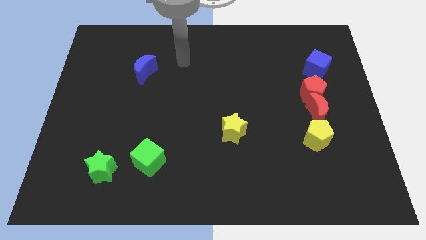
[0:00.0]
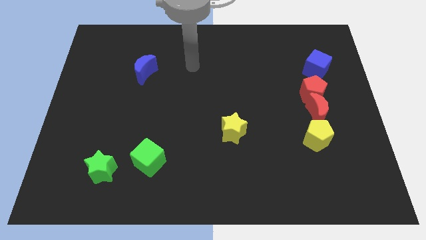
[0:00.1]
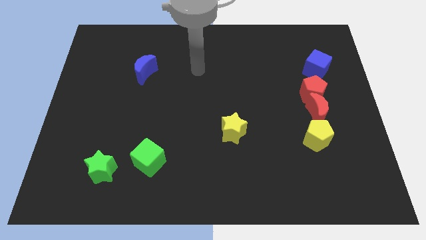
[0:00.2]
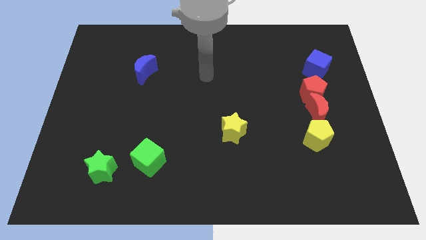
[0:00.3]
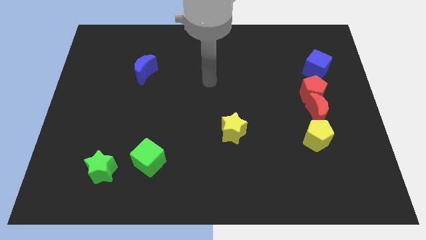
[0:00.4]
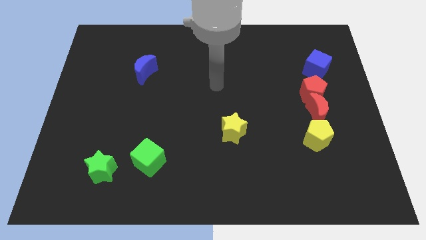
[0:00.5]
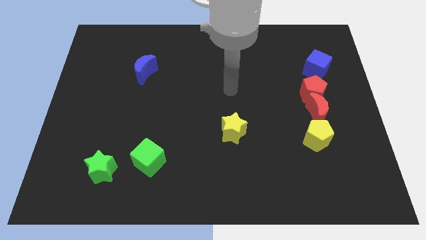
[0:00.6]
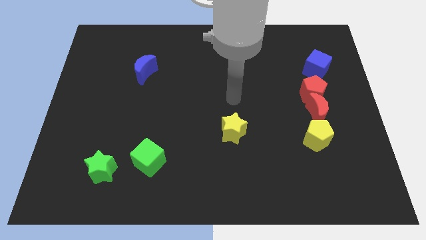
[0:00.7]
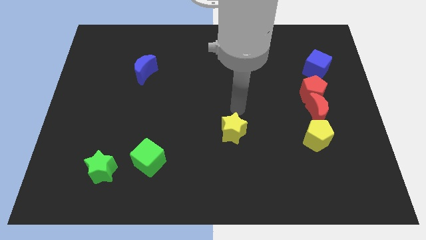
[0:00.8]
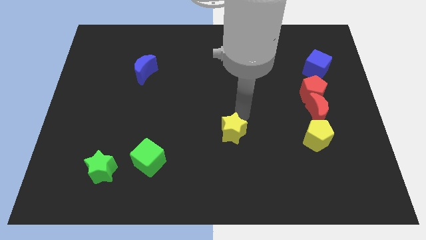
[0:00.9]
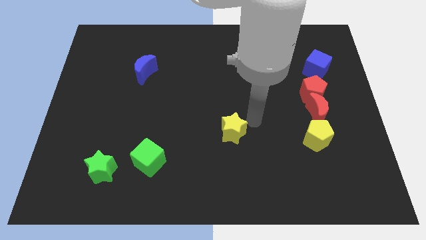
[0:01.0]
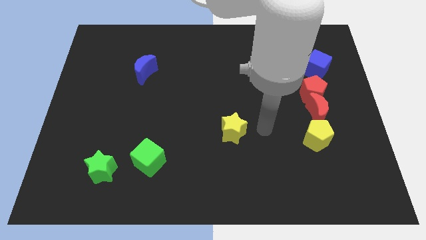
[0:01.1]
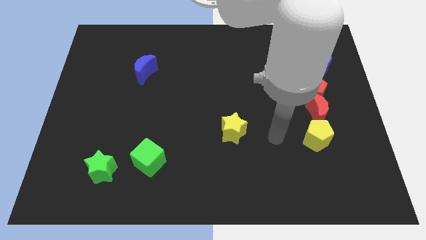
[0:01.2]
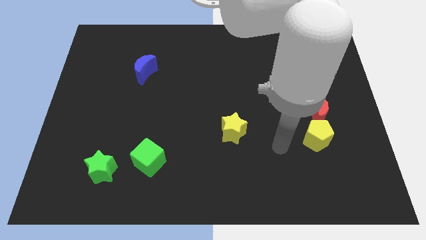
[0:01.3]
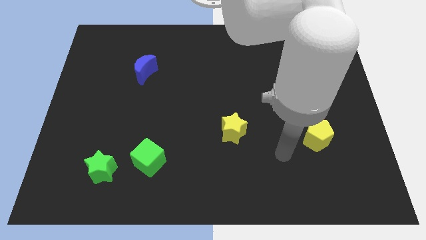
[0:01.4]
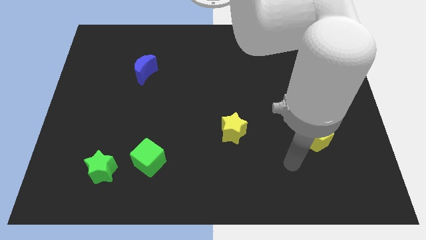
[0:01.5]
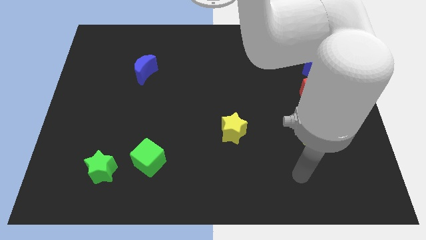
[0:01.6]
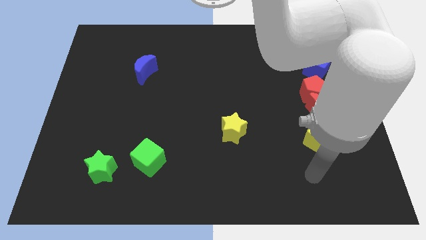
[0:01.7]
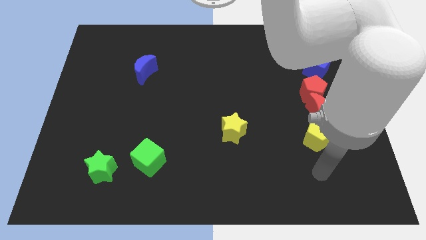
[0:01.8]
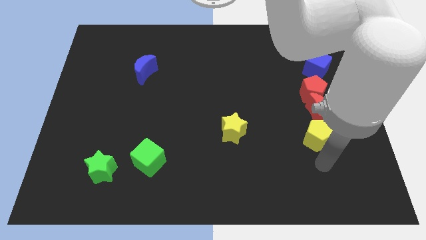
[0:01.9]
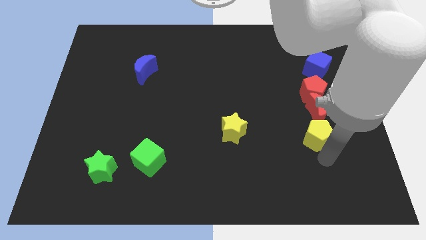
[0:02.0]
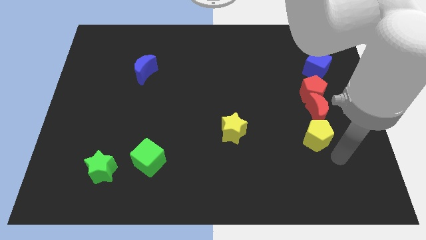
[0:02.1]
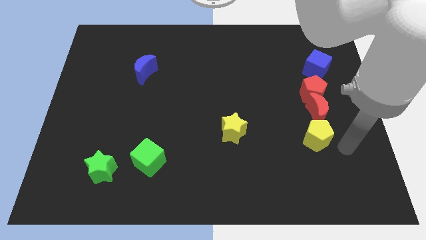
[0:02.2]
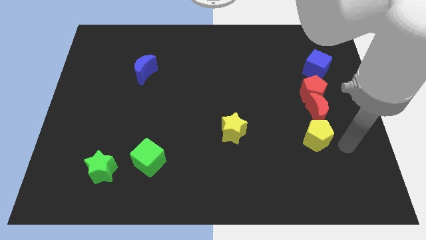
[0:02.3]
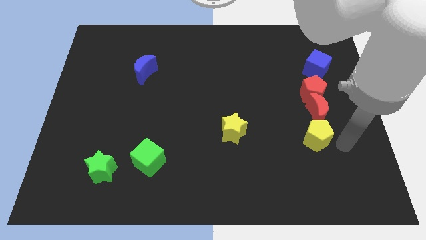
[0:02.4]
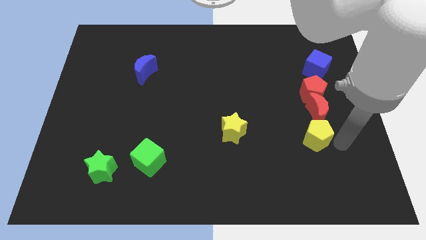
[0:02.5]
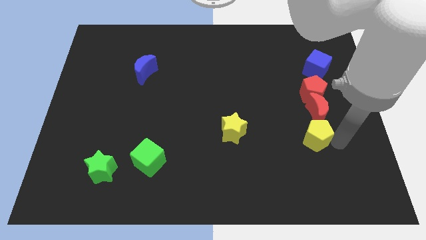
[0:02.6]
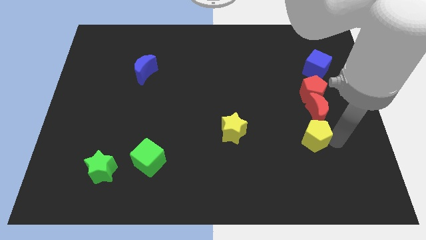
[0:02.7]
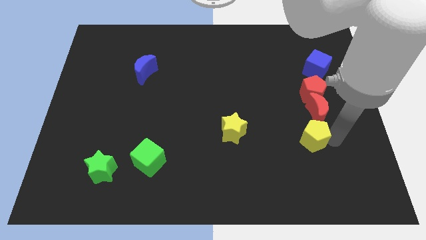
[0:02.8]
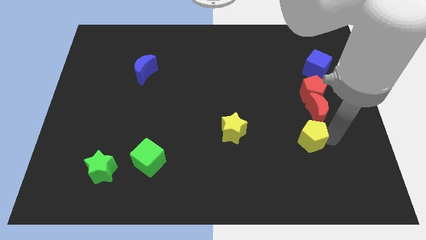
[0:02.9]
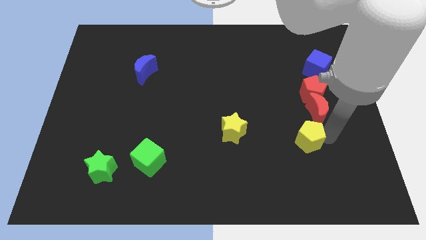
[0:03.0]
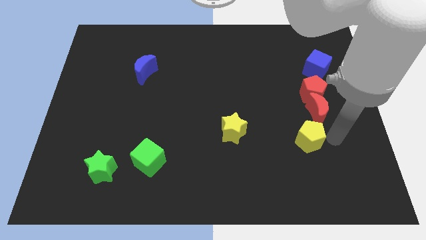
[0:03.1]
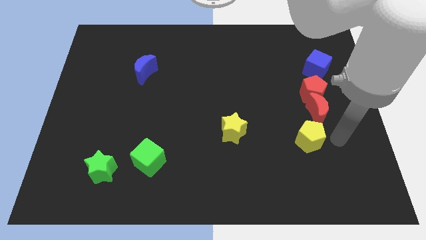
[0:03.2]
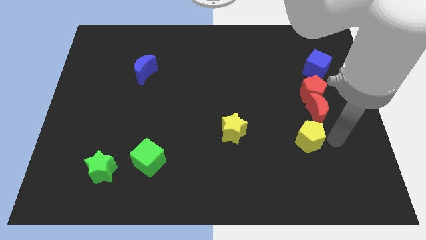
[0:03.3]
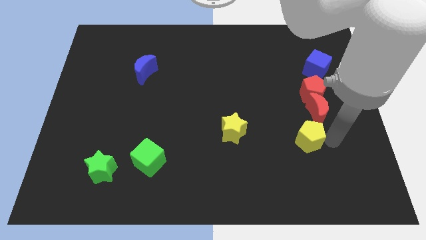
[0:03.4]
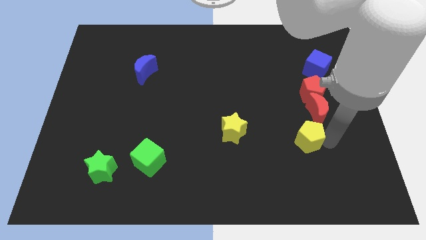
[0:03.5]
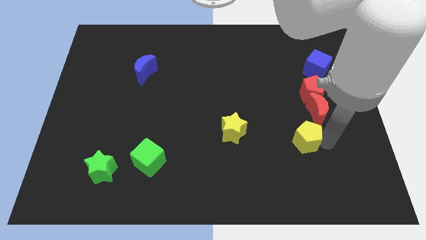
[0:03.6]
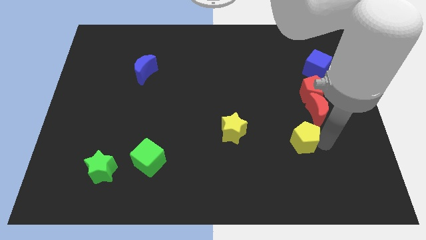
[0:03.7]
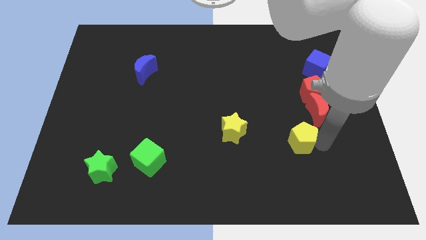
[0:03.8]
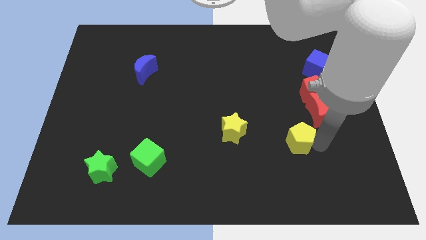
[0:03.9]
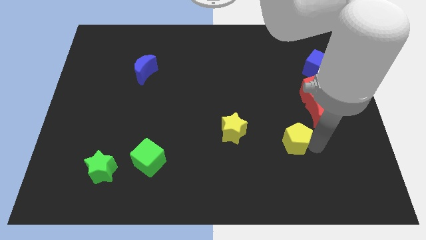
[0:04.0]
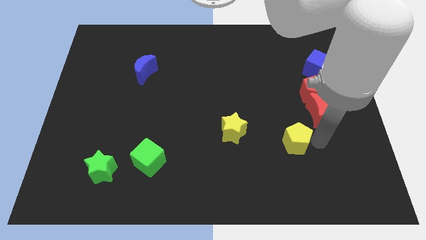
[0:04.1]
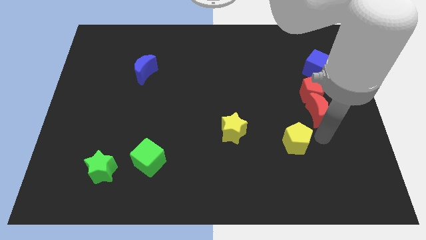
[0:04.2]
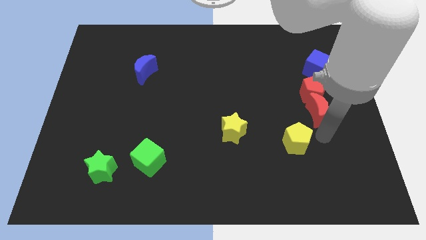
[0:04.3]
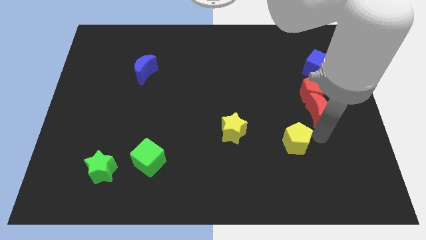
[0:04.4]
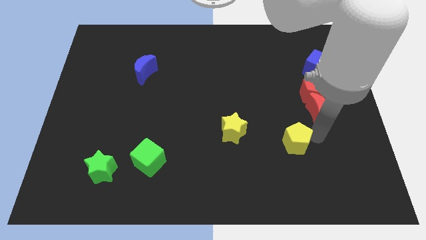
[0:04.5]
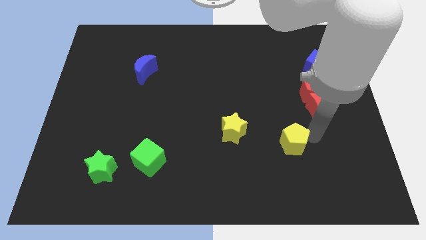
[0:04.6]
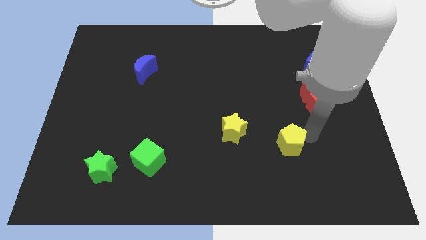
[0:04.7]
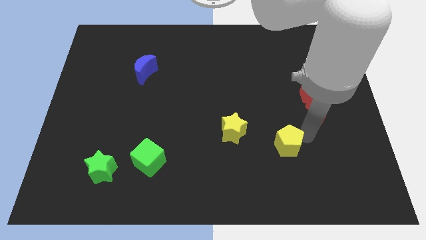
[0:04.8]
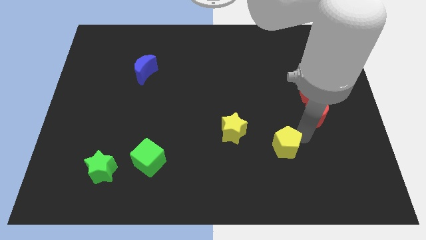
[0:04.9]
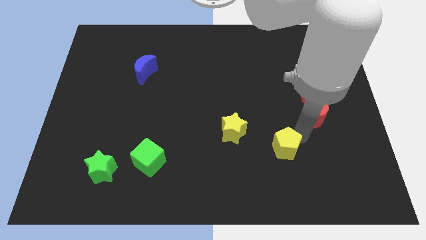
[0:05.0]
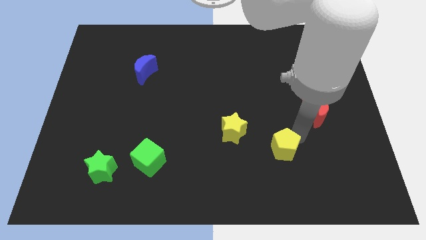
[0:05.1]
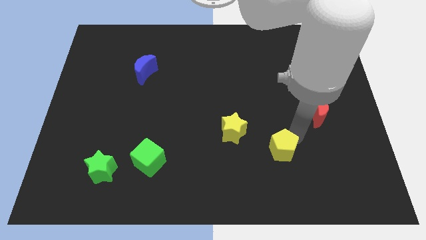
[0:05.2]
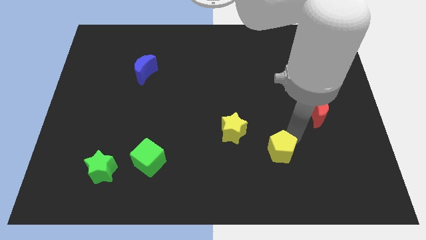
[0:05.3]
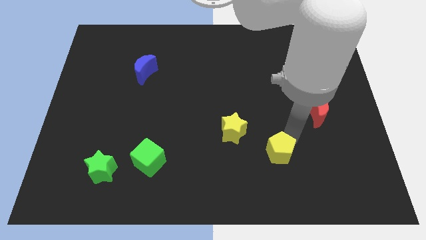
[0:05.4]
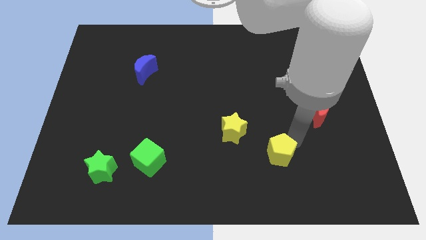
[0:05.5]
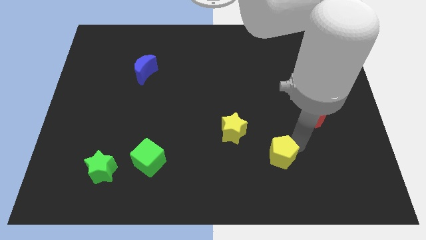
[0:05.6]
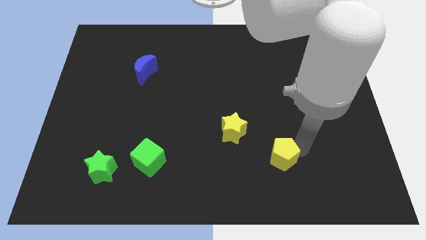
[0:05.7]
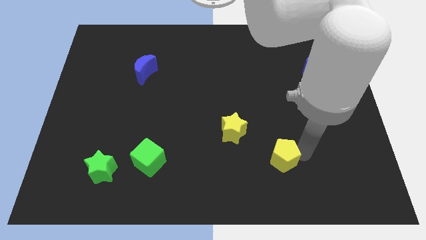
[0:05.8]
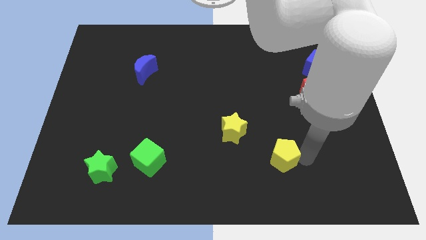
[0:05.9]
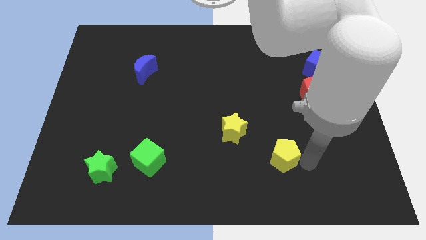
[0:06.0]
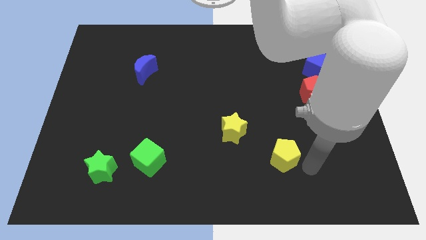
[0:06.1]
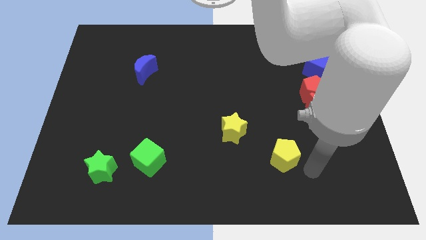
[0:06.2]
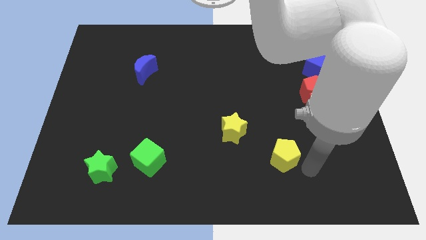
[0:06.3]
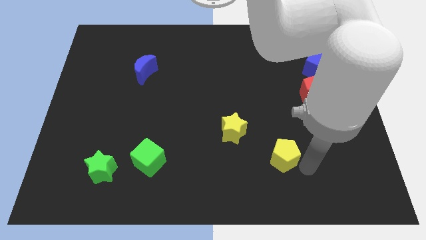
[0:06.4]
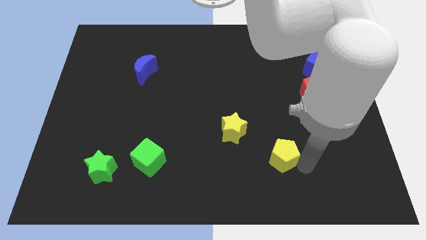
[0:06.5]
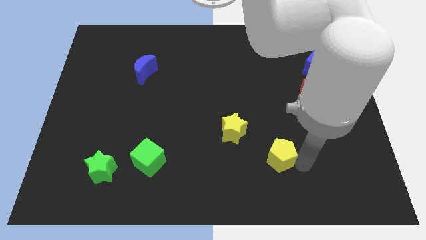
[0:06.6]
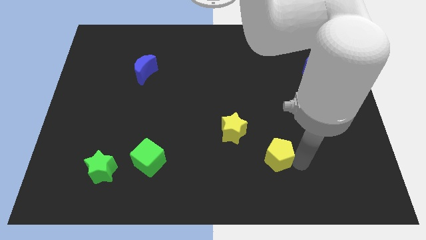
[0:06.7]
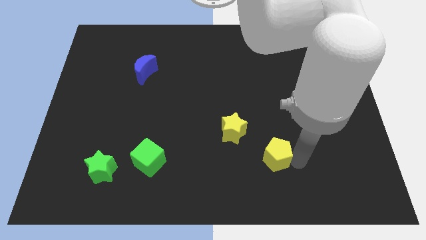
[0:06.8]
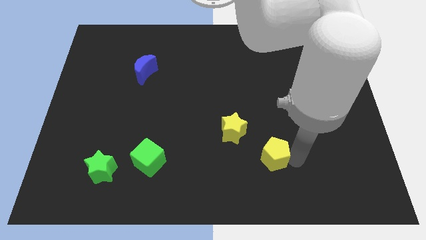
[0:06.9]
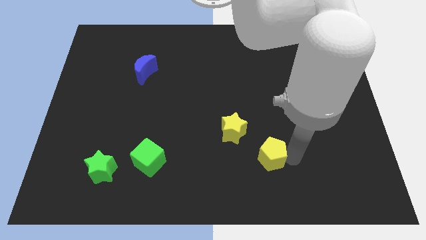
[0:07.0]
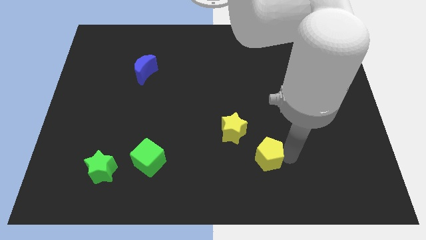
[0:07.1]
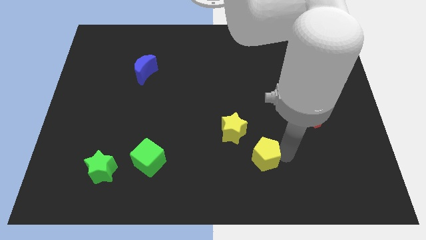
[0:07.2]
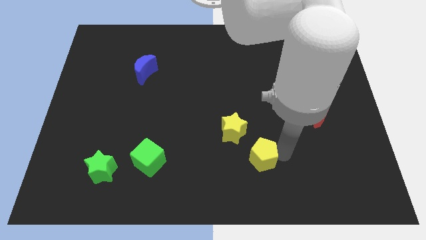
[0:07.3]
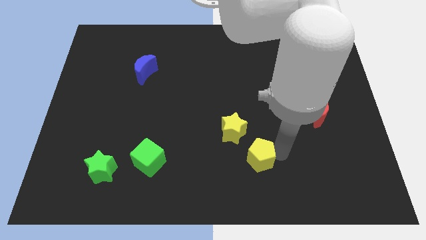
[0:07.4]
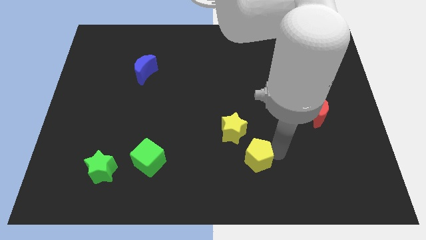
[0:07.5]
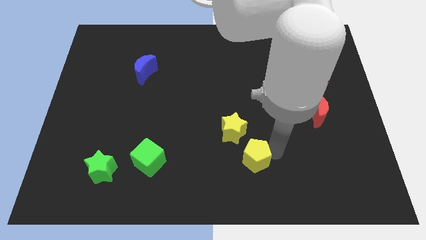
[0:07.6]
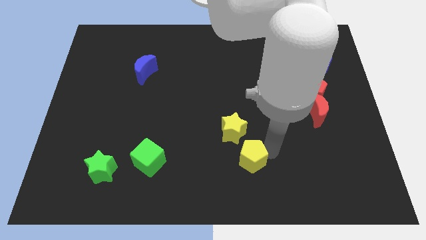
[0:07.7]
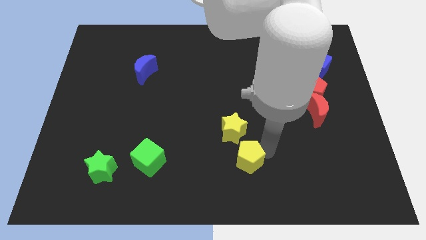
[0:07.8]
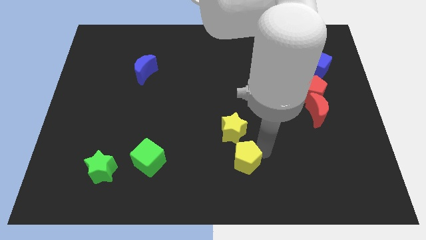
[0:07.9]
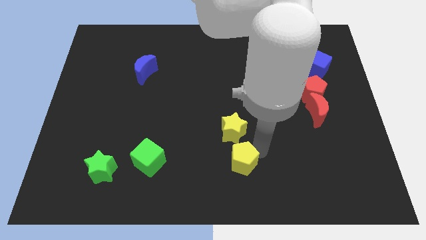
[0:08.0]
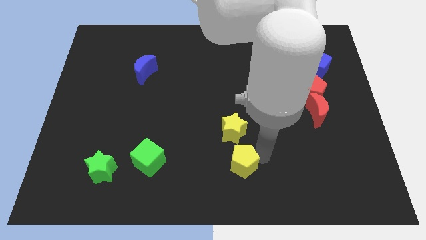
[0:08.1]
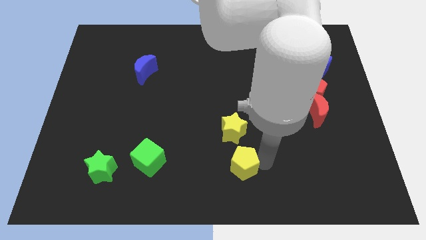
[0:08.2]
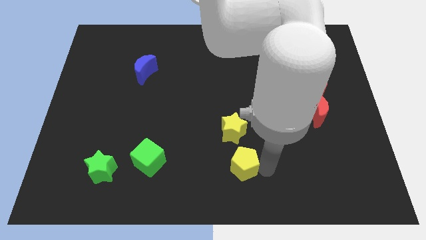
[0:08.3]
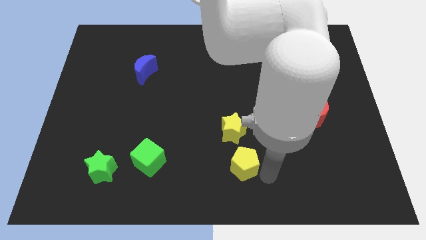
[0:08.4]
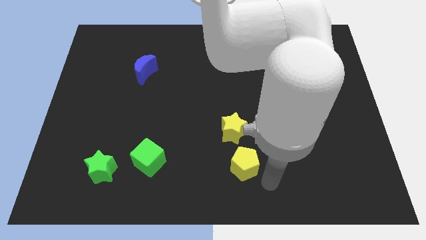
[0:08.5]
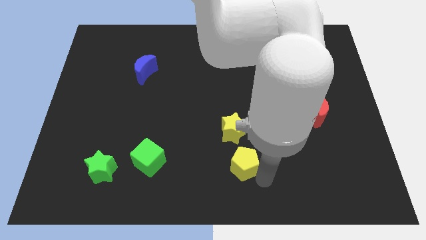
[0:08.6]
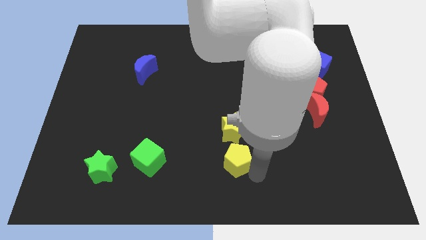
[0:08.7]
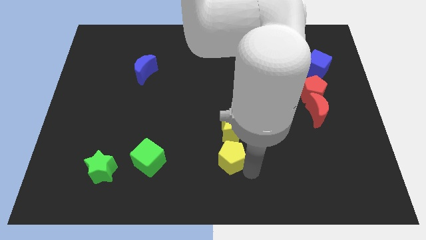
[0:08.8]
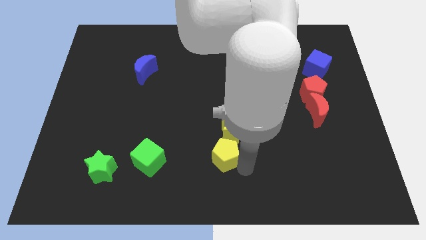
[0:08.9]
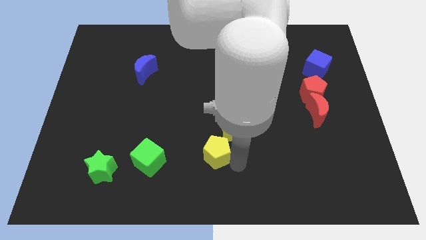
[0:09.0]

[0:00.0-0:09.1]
move the yellow pentagon left
